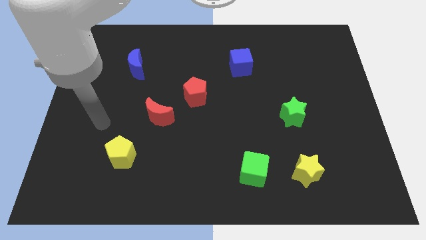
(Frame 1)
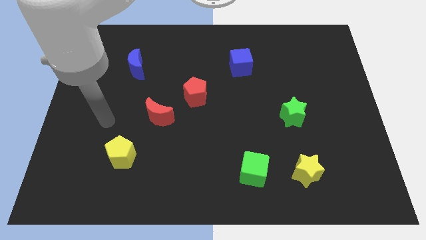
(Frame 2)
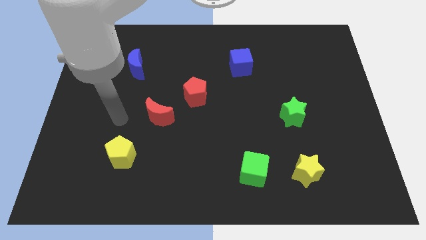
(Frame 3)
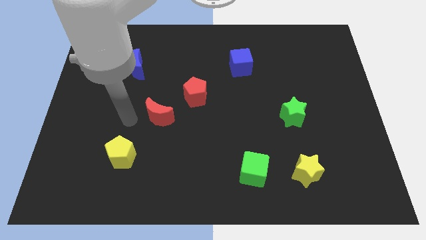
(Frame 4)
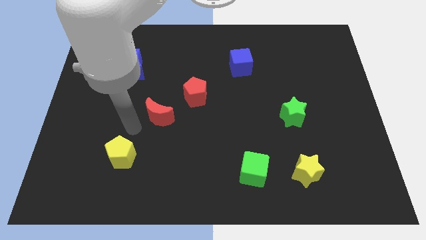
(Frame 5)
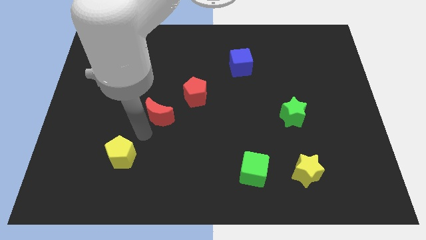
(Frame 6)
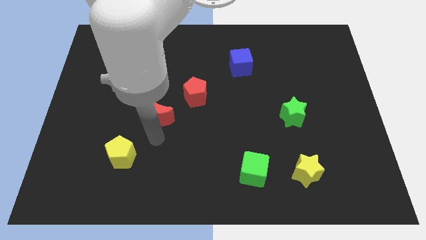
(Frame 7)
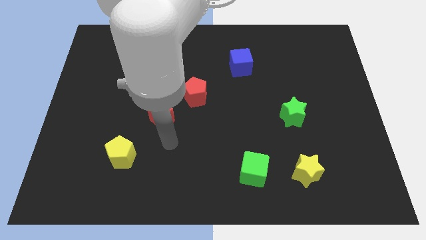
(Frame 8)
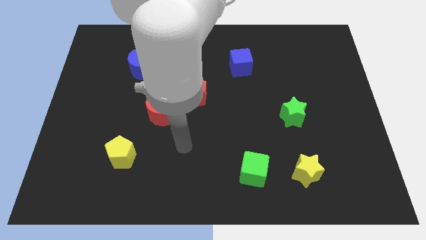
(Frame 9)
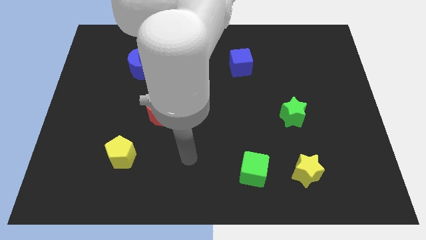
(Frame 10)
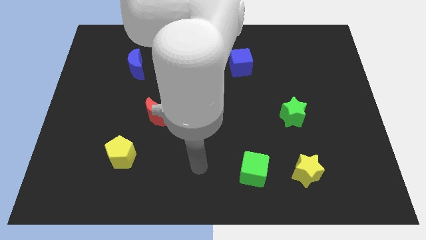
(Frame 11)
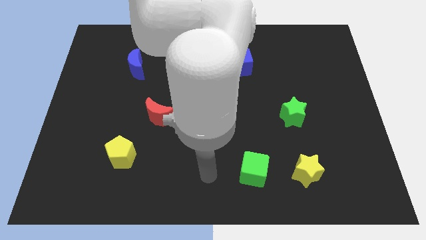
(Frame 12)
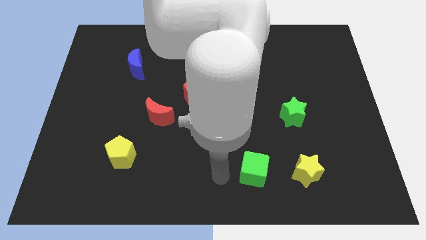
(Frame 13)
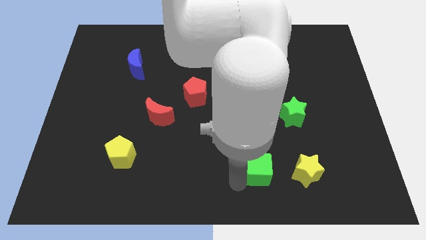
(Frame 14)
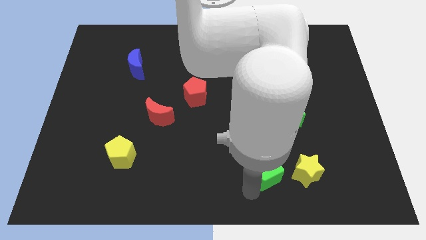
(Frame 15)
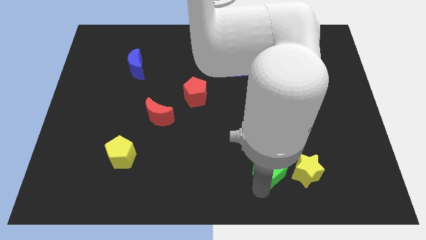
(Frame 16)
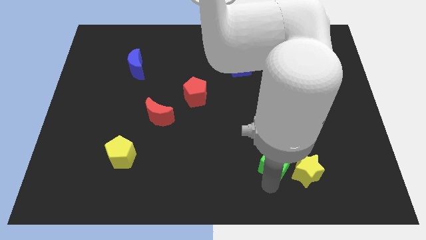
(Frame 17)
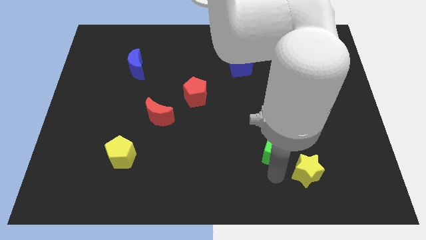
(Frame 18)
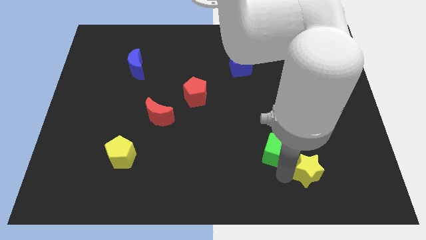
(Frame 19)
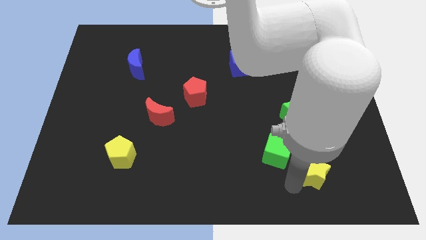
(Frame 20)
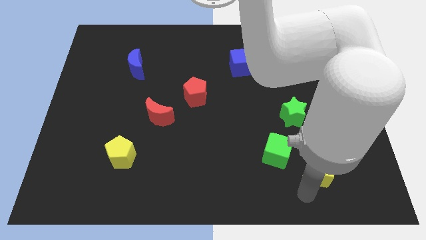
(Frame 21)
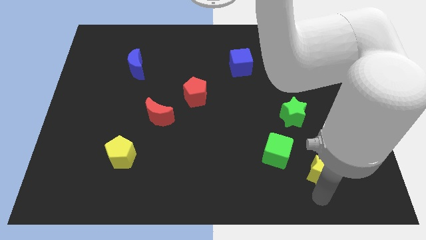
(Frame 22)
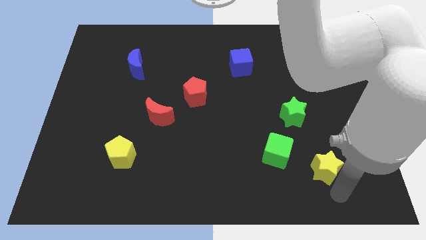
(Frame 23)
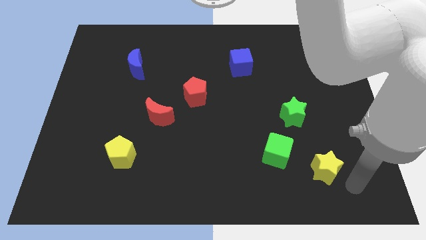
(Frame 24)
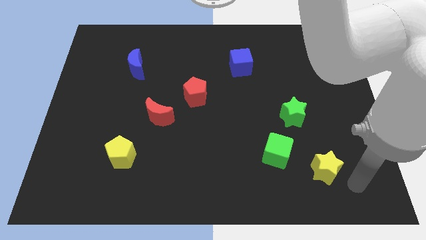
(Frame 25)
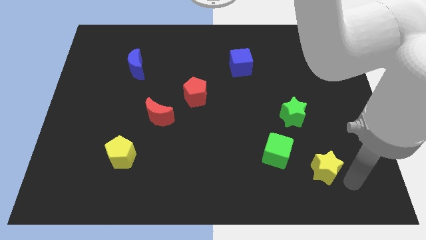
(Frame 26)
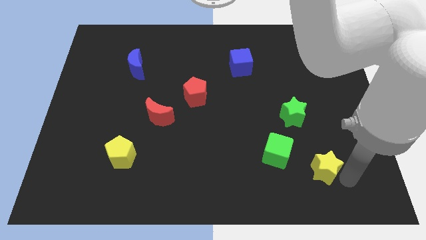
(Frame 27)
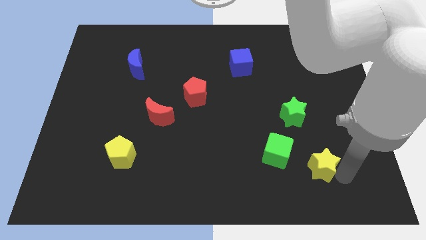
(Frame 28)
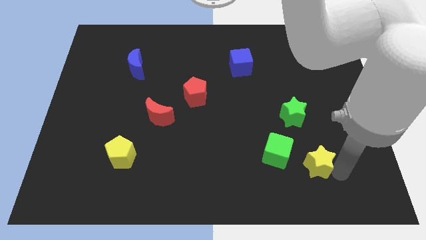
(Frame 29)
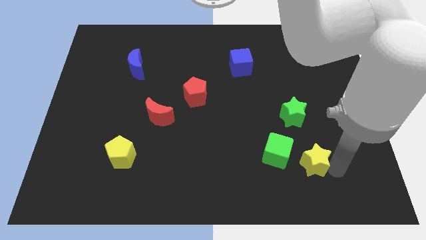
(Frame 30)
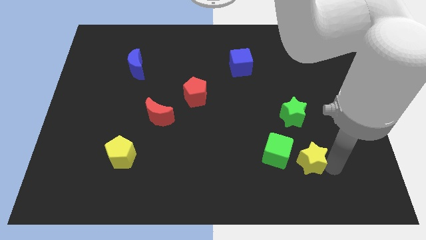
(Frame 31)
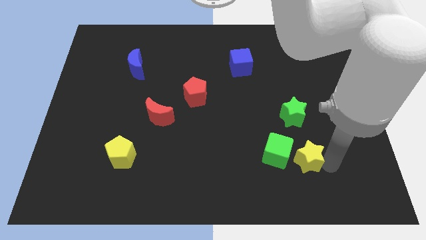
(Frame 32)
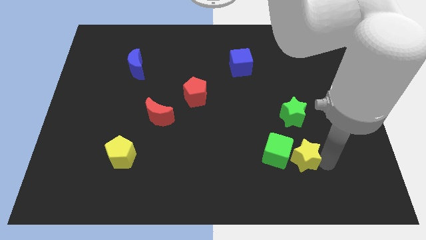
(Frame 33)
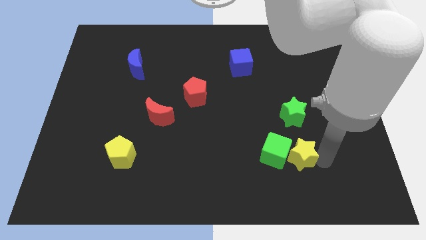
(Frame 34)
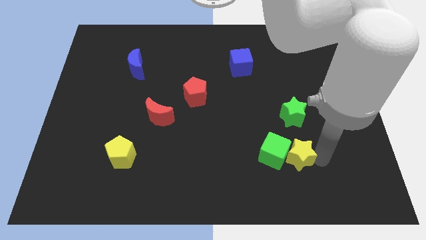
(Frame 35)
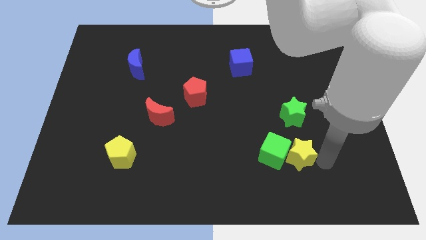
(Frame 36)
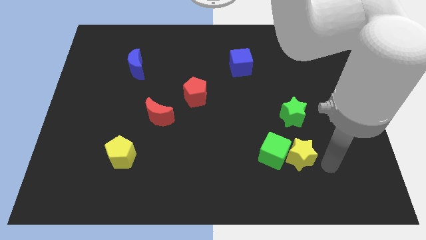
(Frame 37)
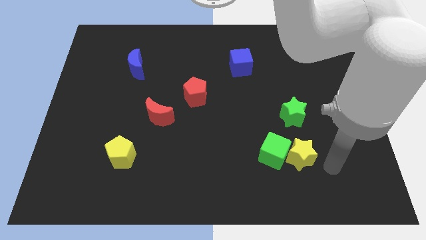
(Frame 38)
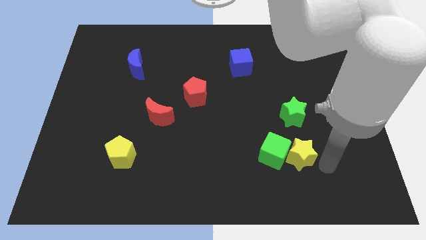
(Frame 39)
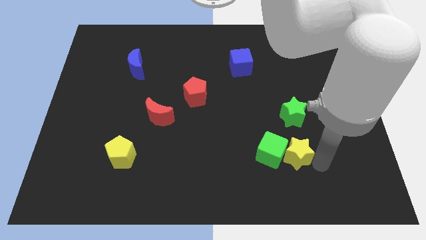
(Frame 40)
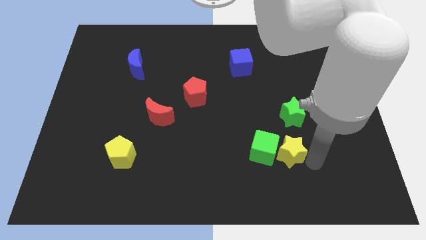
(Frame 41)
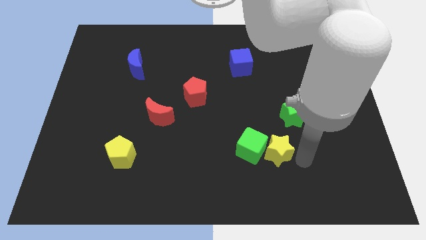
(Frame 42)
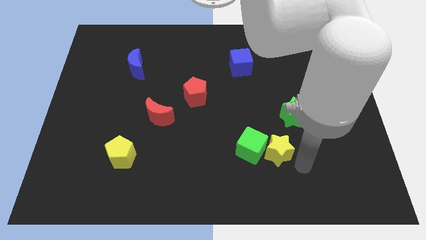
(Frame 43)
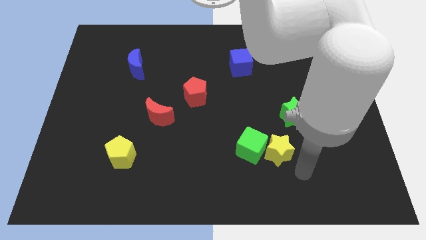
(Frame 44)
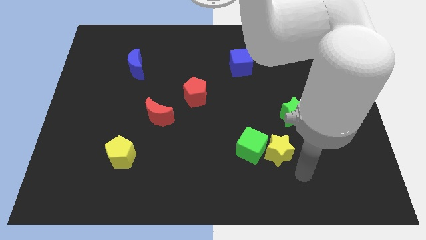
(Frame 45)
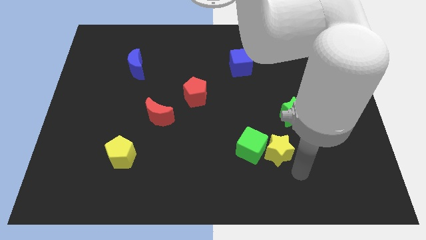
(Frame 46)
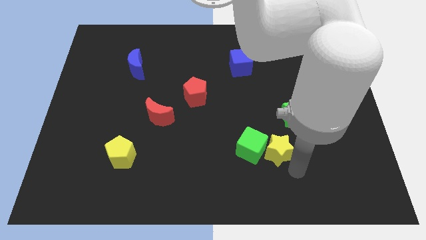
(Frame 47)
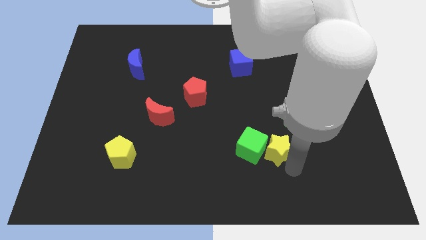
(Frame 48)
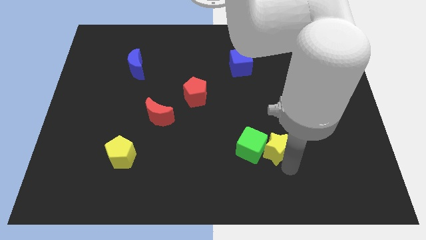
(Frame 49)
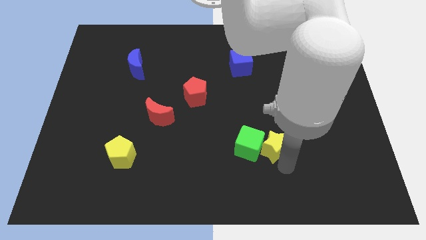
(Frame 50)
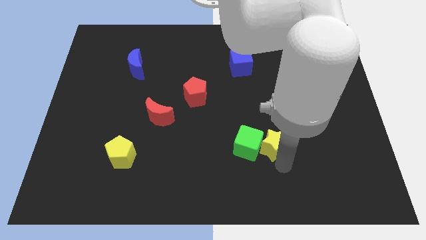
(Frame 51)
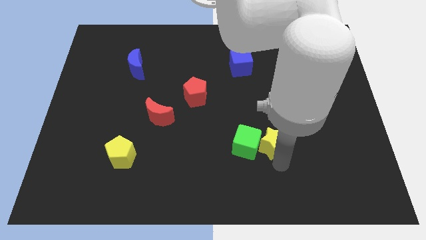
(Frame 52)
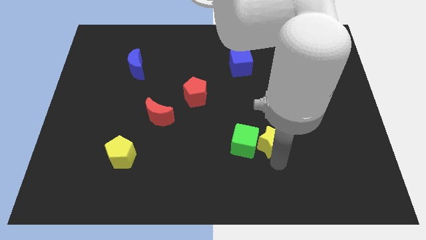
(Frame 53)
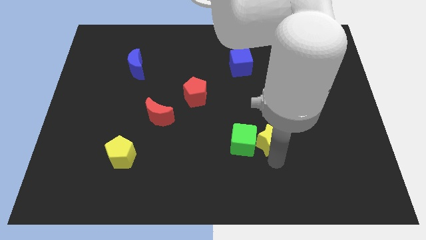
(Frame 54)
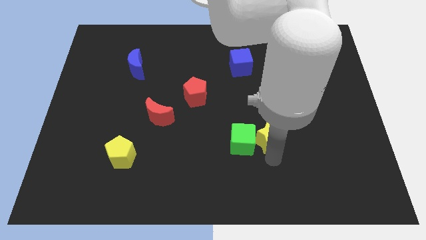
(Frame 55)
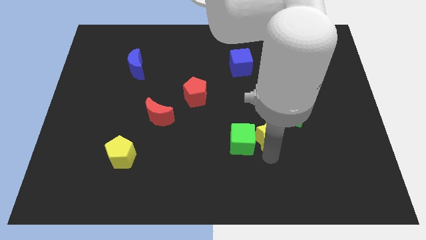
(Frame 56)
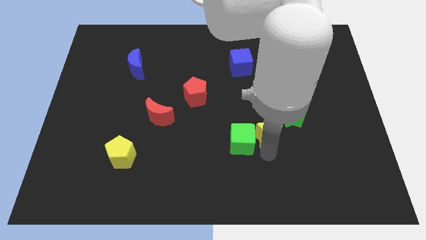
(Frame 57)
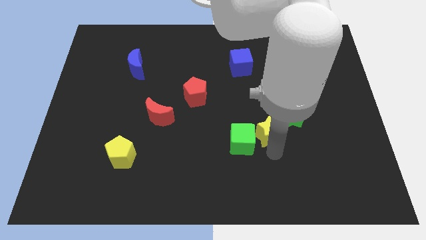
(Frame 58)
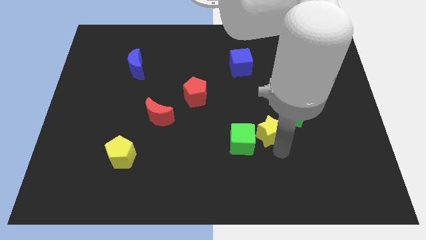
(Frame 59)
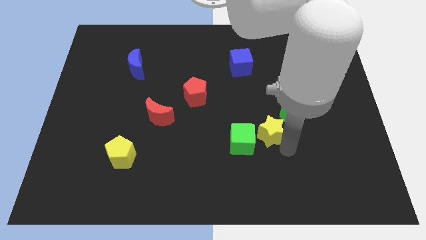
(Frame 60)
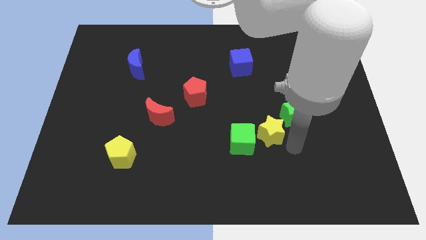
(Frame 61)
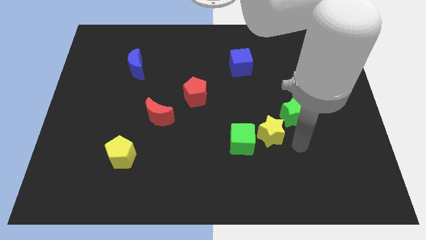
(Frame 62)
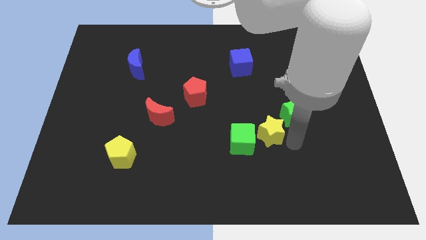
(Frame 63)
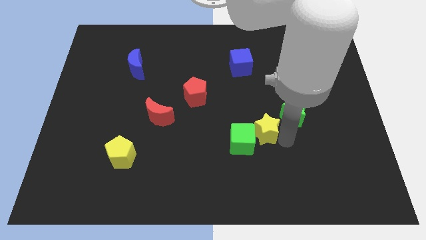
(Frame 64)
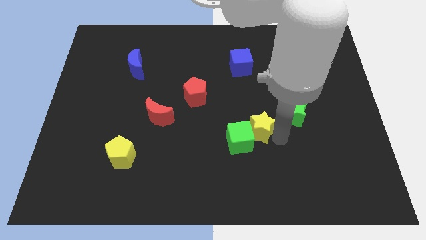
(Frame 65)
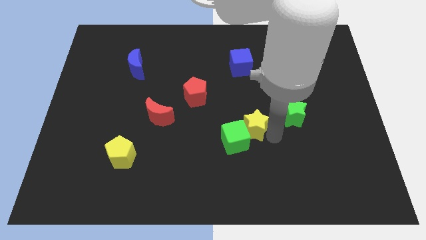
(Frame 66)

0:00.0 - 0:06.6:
slide the yellow star to the middle of the board
